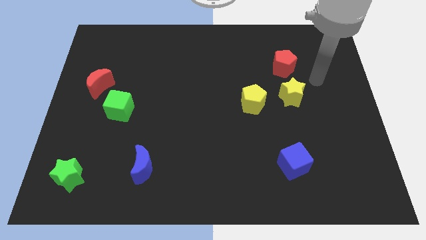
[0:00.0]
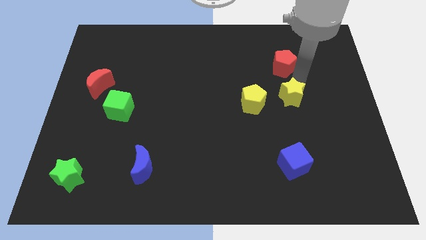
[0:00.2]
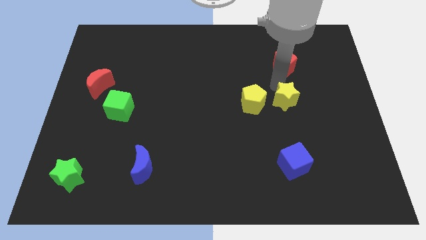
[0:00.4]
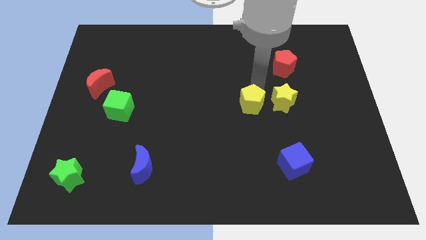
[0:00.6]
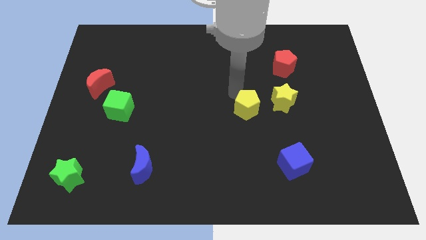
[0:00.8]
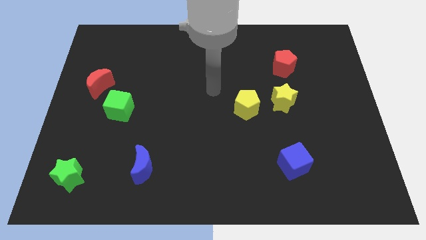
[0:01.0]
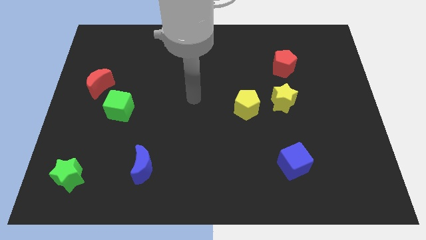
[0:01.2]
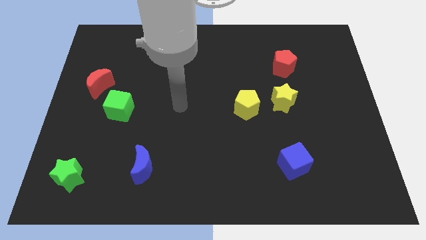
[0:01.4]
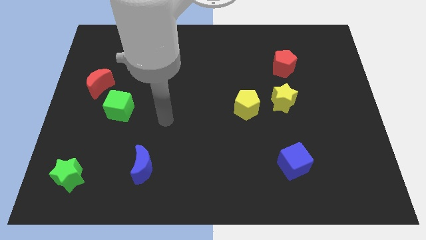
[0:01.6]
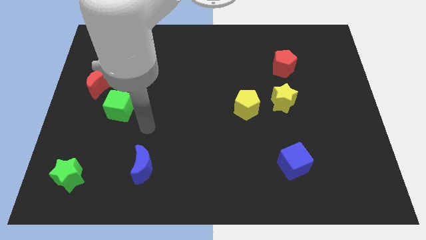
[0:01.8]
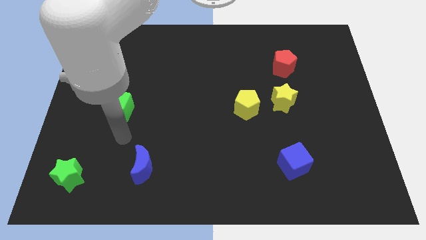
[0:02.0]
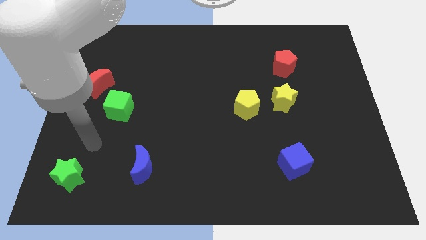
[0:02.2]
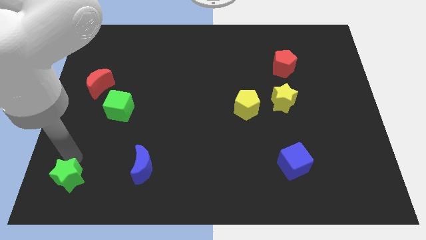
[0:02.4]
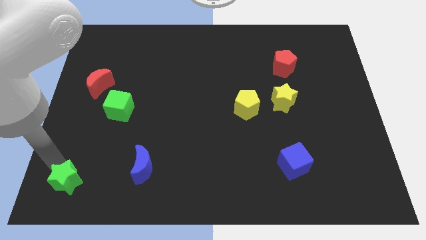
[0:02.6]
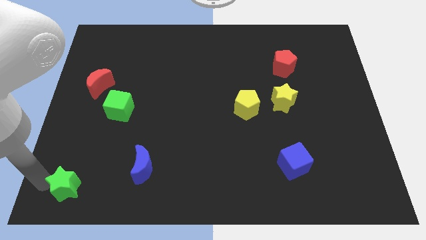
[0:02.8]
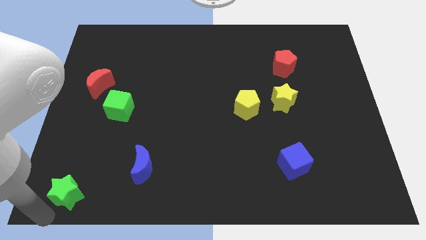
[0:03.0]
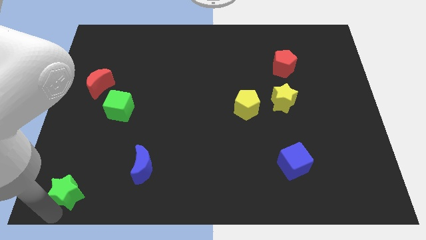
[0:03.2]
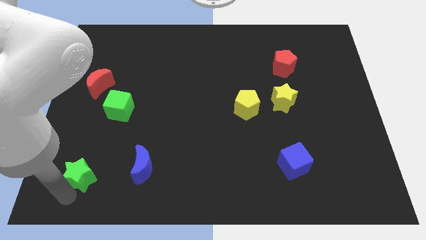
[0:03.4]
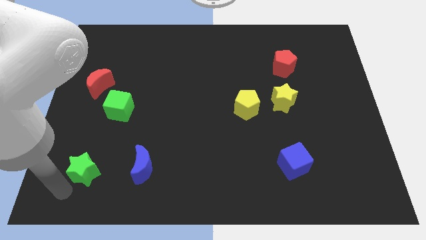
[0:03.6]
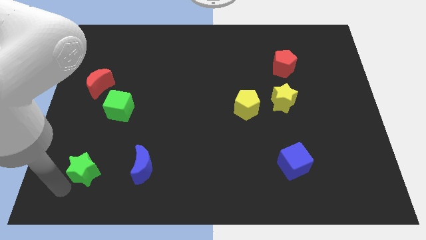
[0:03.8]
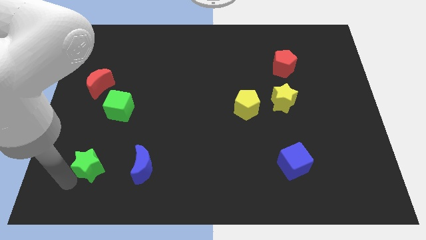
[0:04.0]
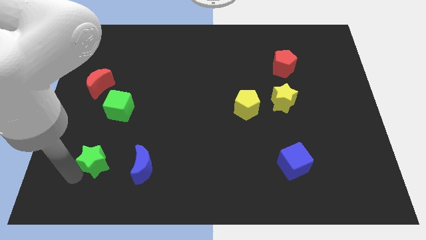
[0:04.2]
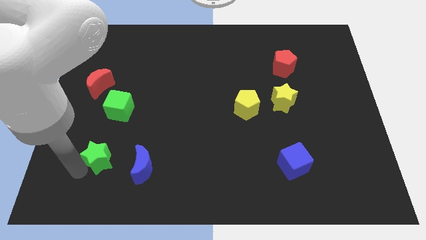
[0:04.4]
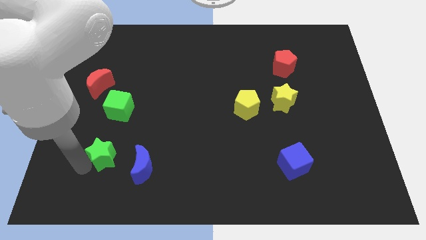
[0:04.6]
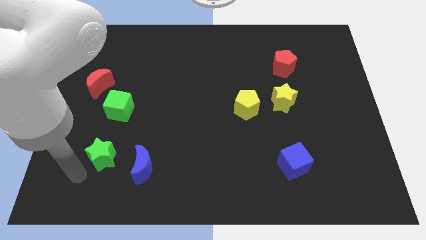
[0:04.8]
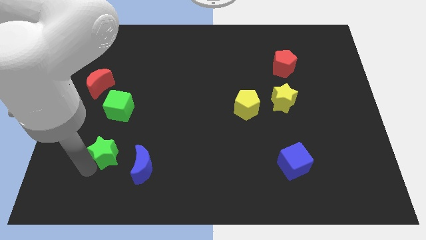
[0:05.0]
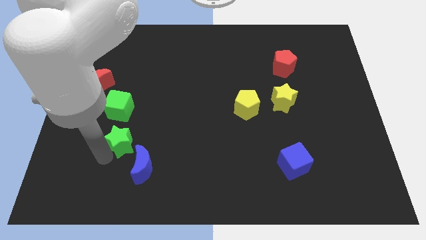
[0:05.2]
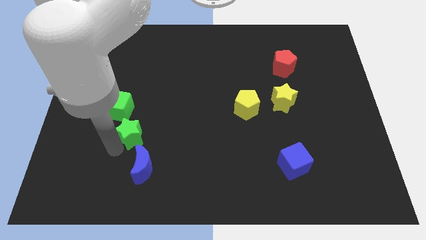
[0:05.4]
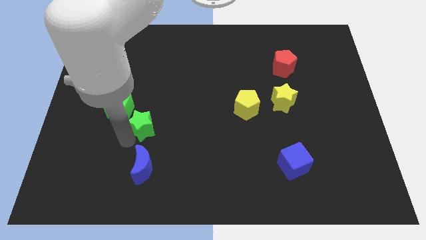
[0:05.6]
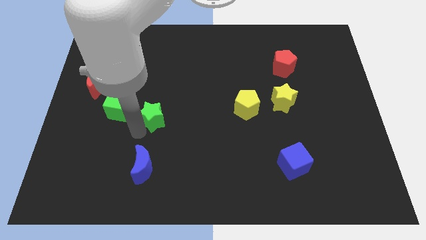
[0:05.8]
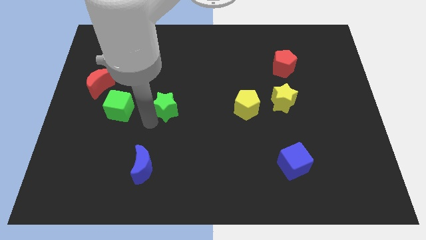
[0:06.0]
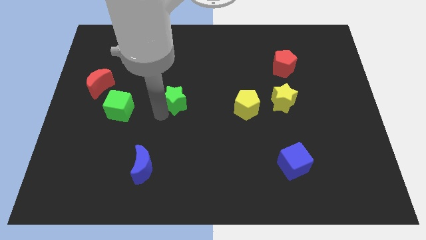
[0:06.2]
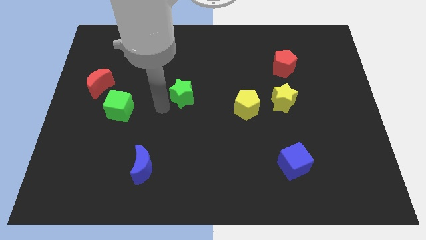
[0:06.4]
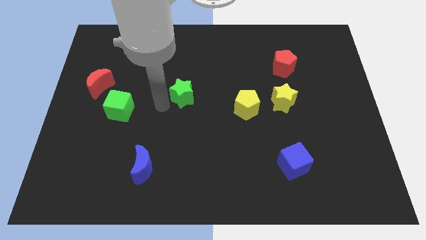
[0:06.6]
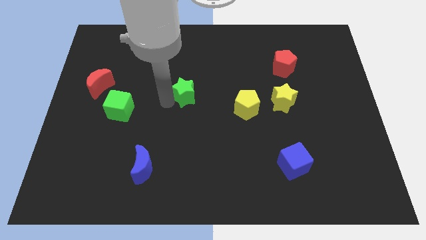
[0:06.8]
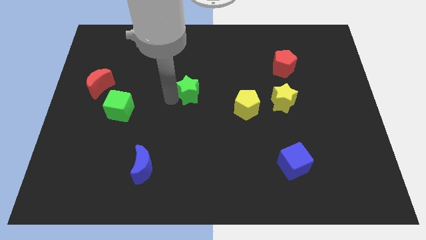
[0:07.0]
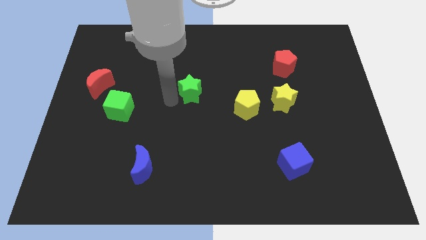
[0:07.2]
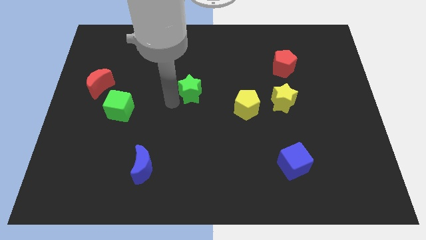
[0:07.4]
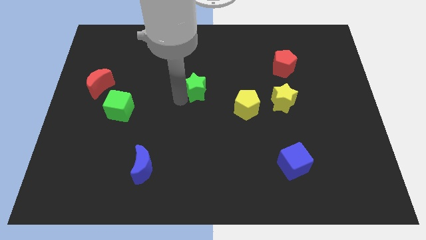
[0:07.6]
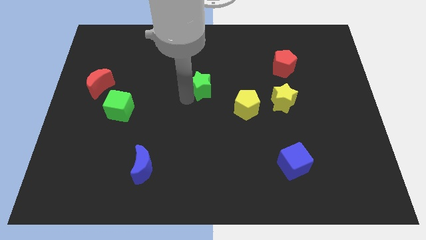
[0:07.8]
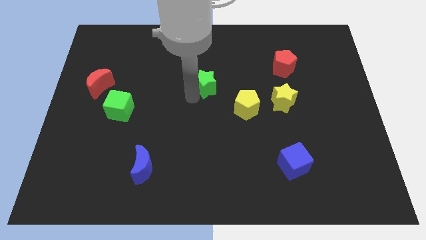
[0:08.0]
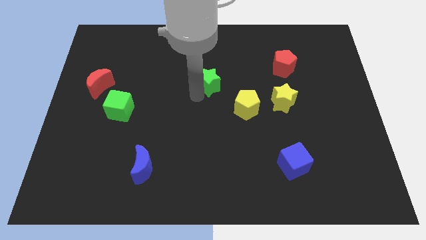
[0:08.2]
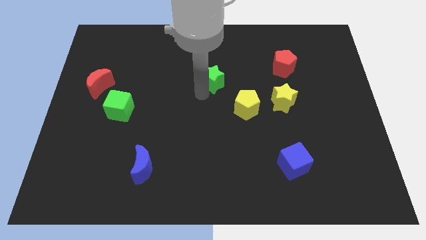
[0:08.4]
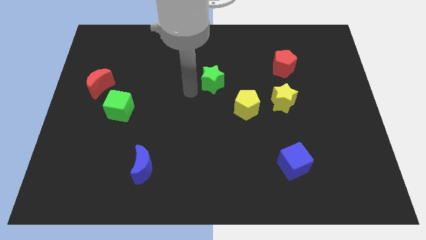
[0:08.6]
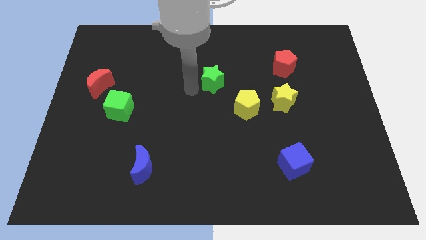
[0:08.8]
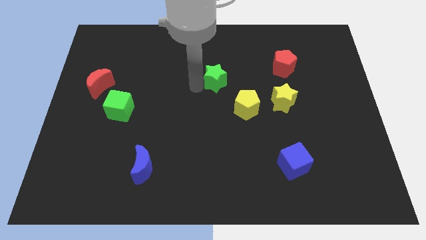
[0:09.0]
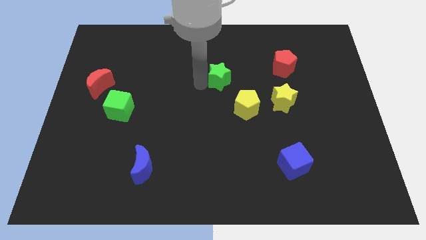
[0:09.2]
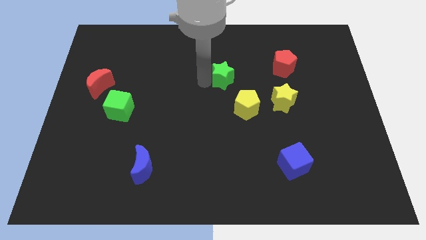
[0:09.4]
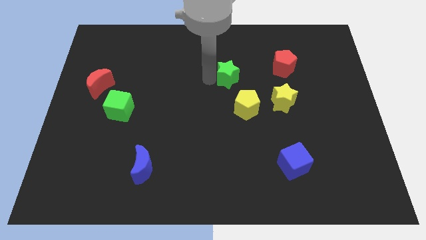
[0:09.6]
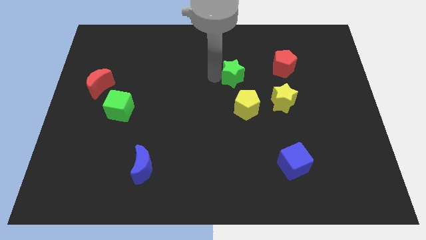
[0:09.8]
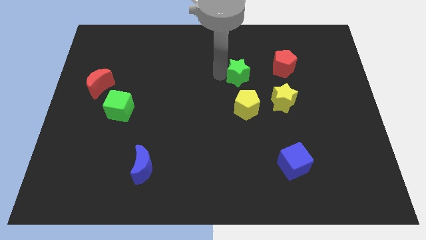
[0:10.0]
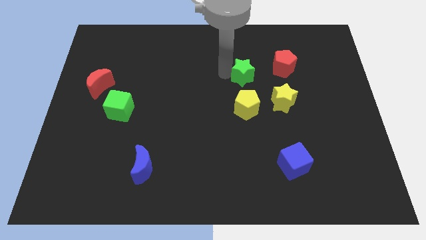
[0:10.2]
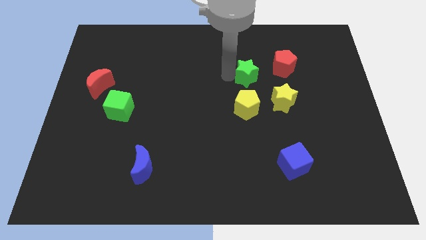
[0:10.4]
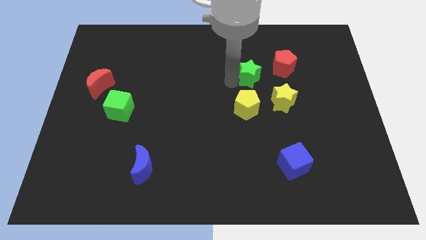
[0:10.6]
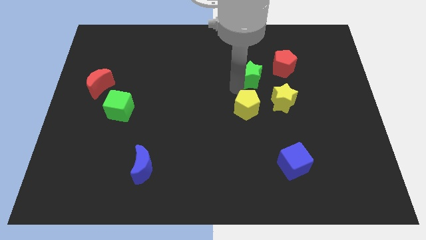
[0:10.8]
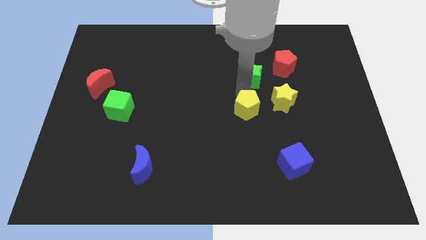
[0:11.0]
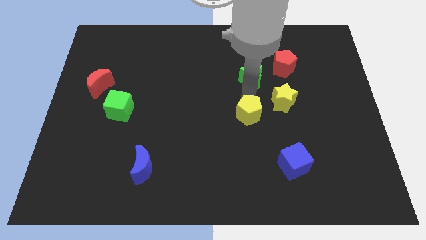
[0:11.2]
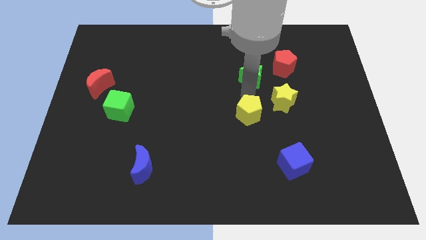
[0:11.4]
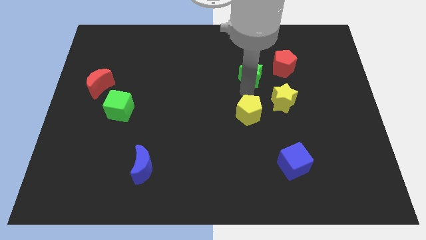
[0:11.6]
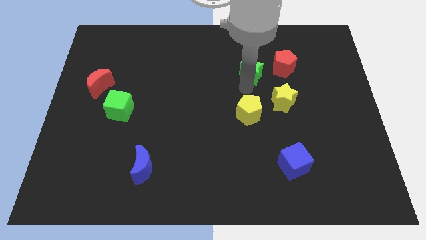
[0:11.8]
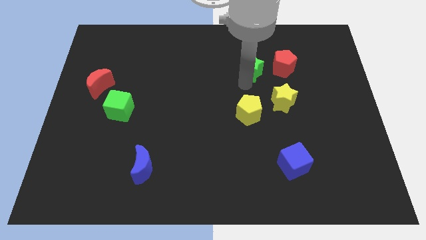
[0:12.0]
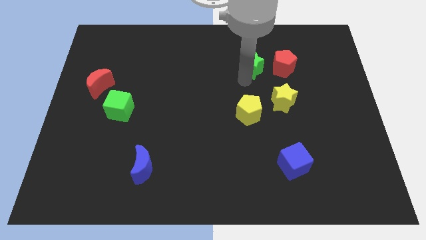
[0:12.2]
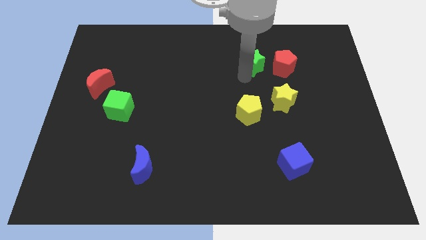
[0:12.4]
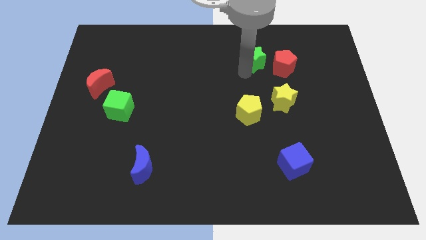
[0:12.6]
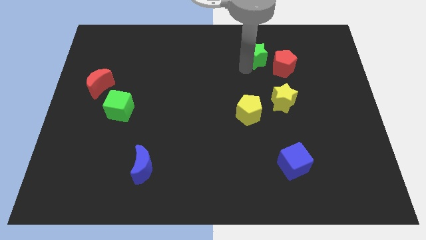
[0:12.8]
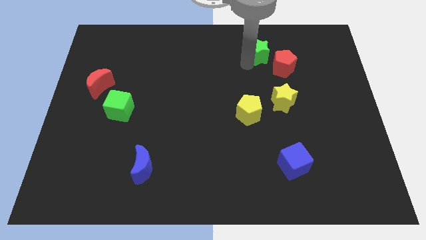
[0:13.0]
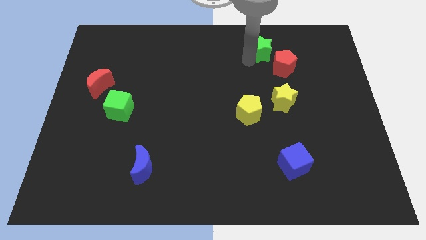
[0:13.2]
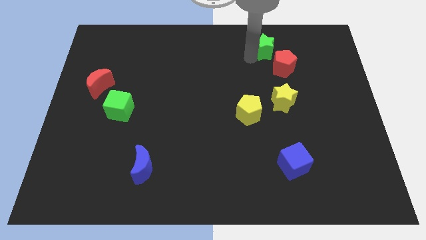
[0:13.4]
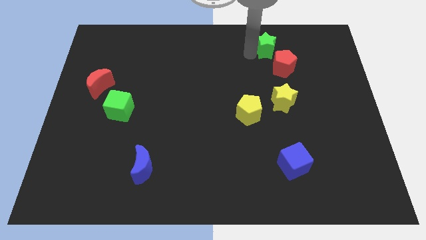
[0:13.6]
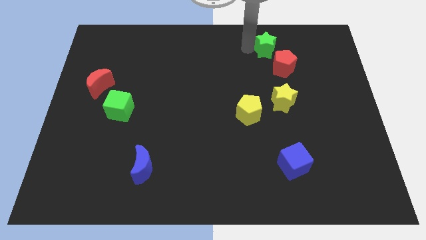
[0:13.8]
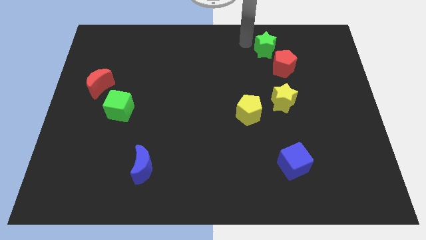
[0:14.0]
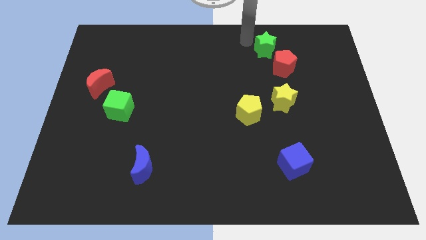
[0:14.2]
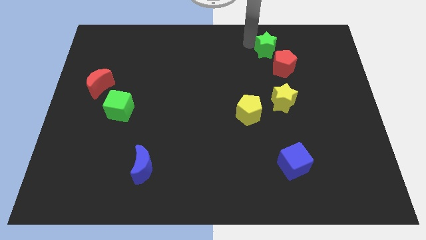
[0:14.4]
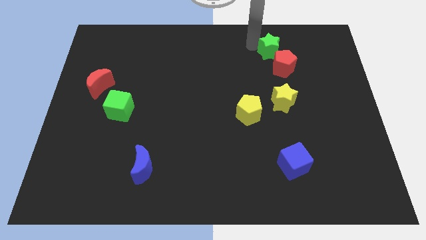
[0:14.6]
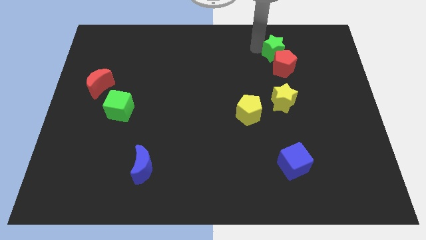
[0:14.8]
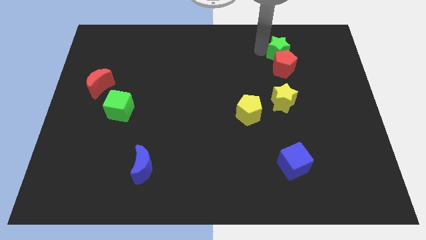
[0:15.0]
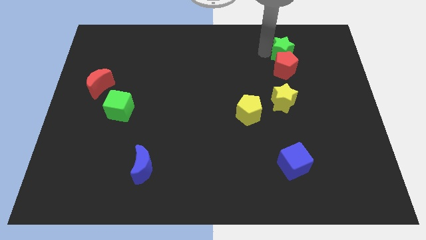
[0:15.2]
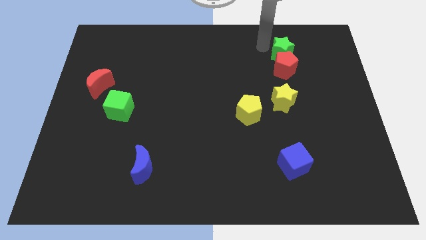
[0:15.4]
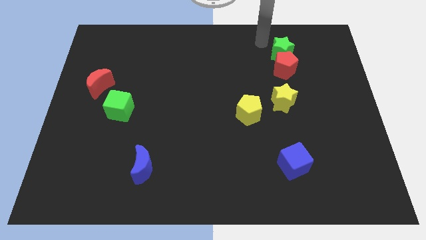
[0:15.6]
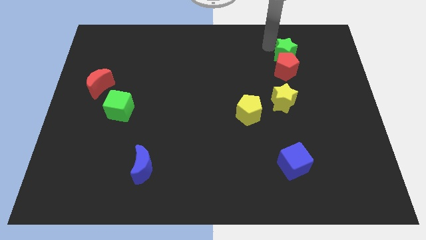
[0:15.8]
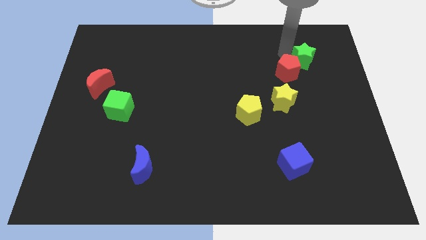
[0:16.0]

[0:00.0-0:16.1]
move the green star right of the red pentagon

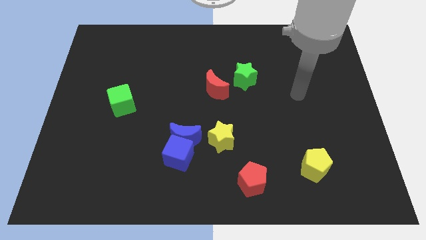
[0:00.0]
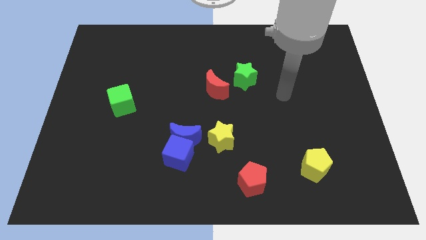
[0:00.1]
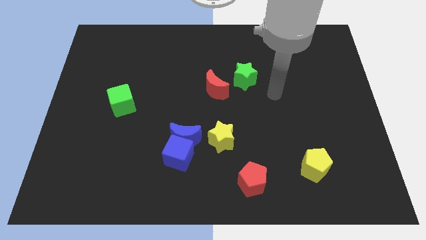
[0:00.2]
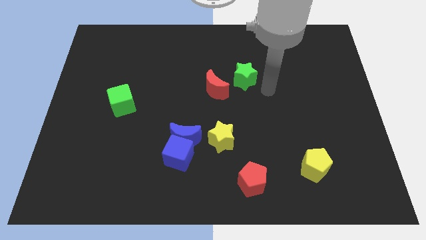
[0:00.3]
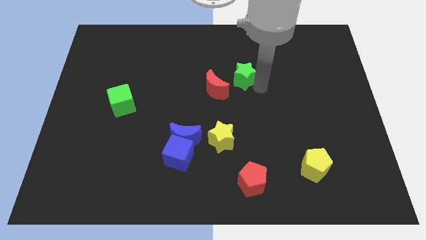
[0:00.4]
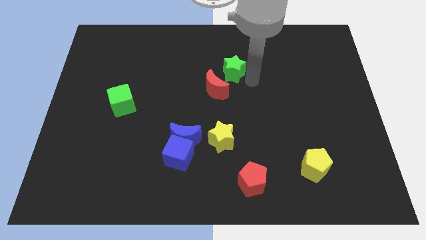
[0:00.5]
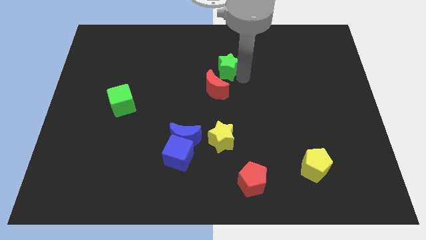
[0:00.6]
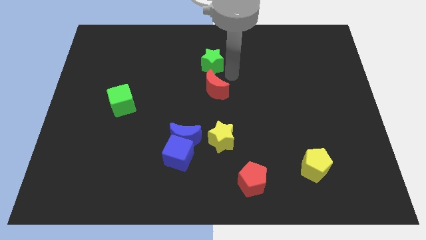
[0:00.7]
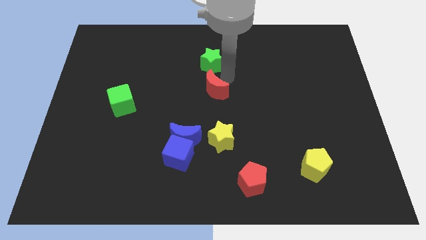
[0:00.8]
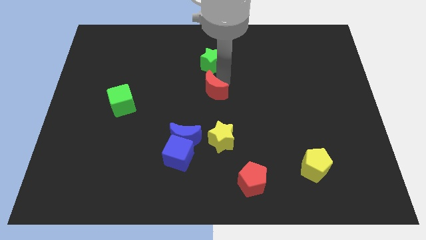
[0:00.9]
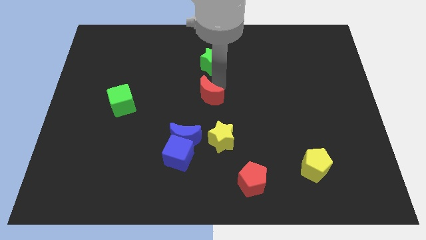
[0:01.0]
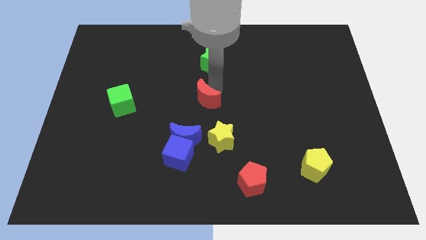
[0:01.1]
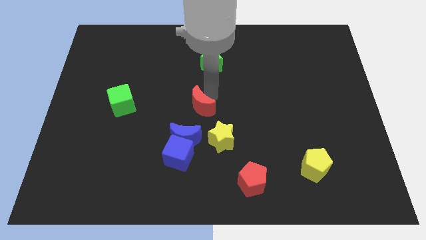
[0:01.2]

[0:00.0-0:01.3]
push the red moon to the top side of the blue cube
